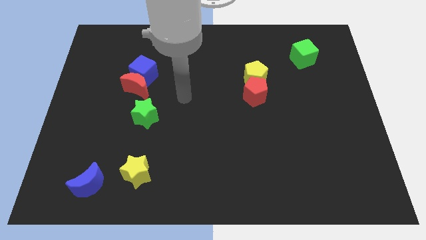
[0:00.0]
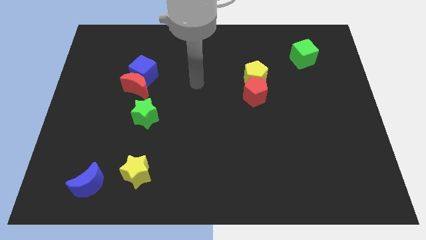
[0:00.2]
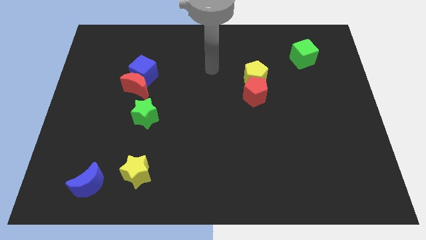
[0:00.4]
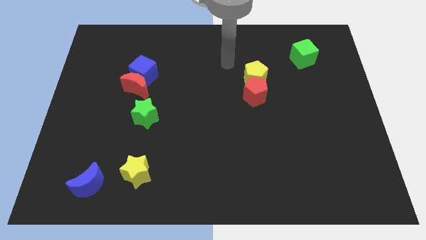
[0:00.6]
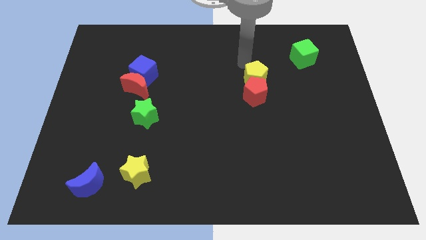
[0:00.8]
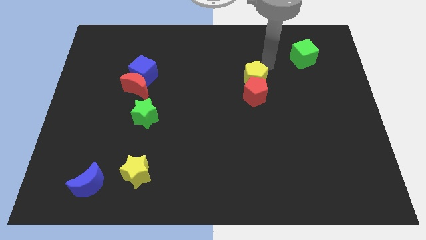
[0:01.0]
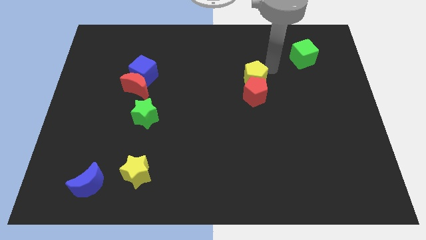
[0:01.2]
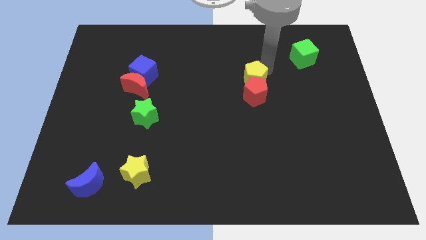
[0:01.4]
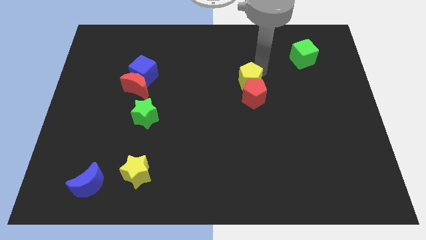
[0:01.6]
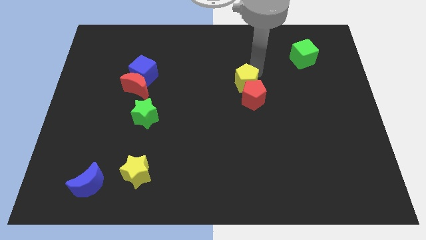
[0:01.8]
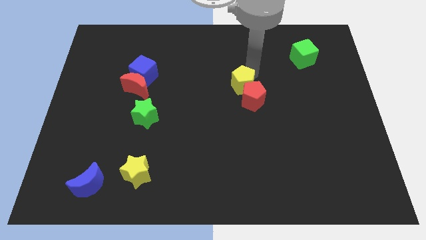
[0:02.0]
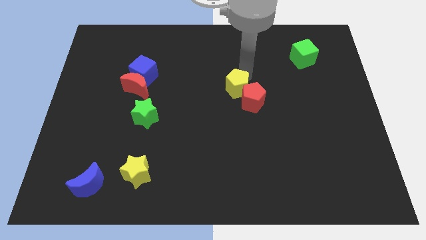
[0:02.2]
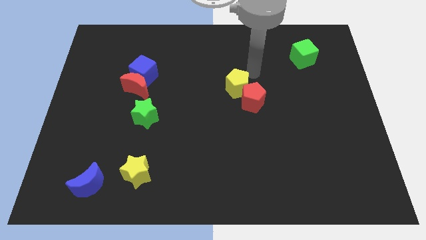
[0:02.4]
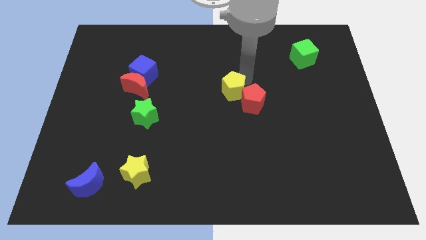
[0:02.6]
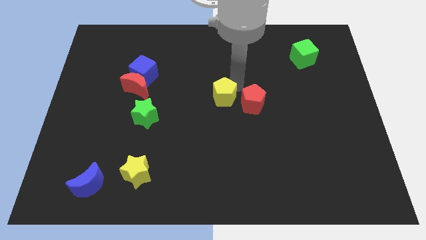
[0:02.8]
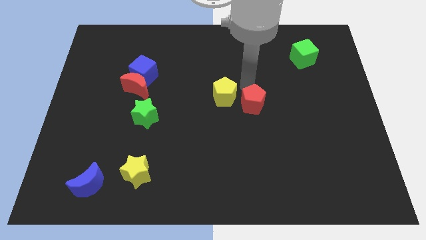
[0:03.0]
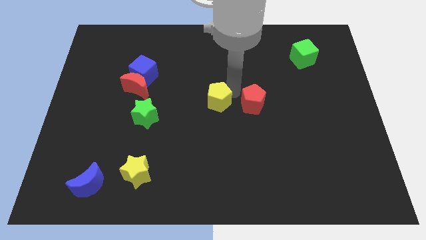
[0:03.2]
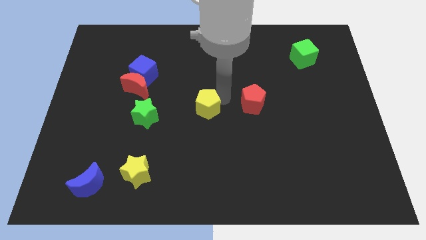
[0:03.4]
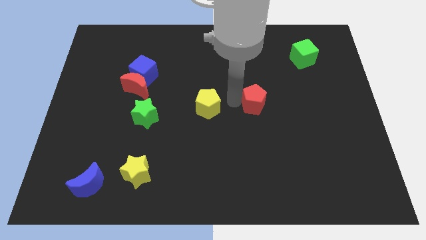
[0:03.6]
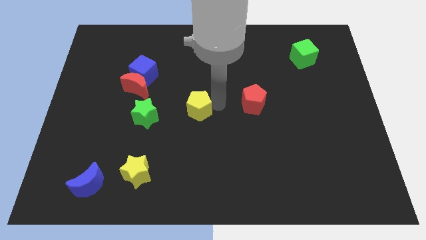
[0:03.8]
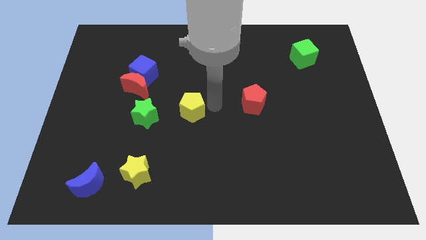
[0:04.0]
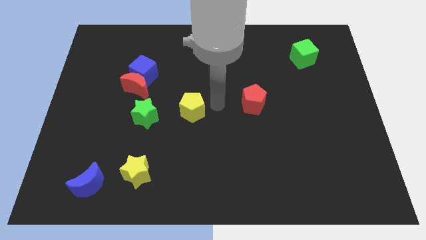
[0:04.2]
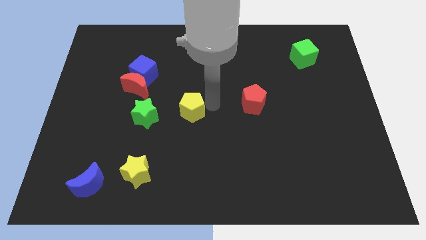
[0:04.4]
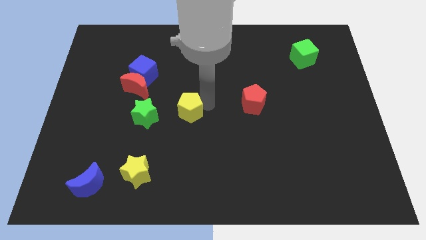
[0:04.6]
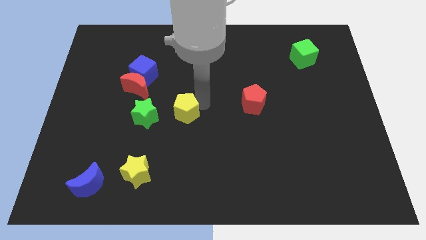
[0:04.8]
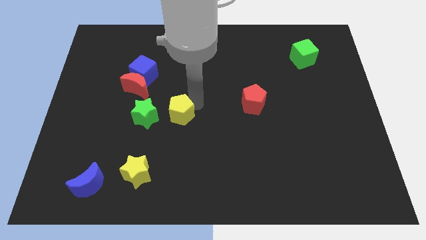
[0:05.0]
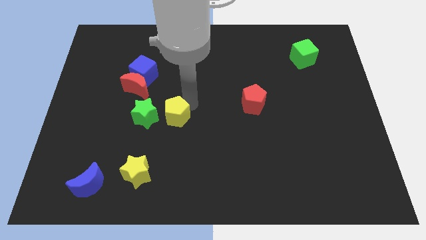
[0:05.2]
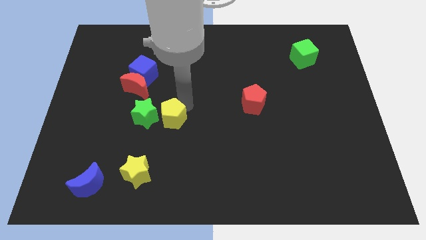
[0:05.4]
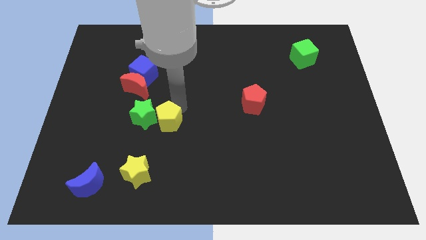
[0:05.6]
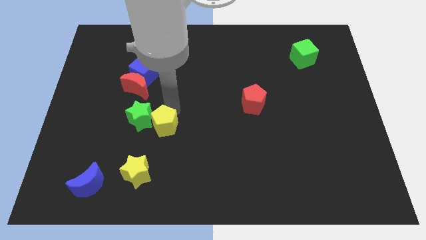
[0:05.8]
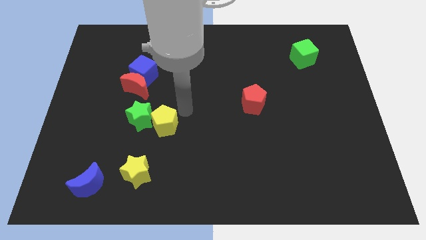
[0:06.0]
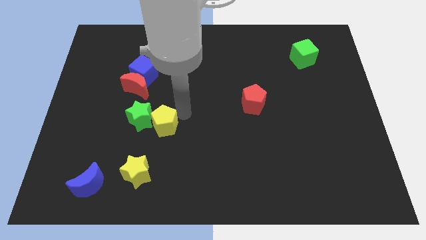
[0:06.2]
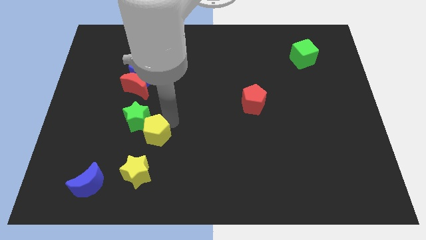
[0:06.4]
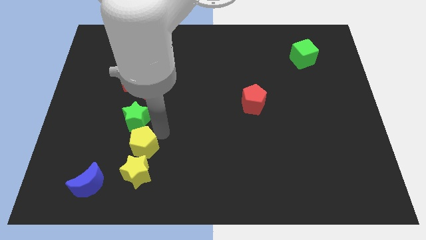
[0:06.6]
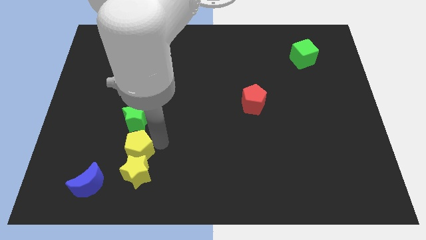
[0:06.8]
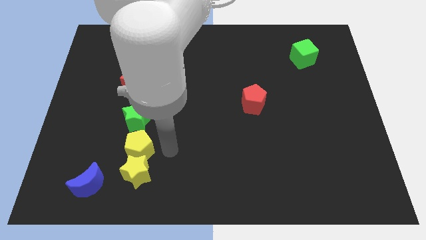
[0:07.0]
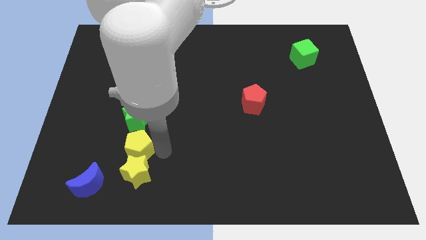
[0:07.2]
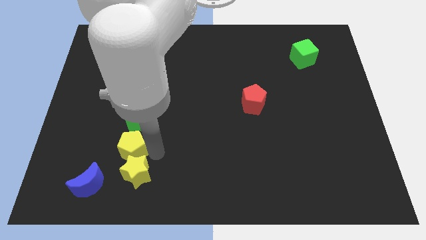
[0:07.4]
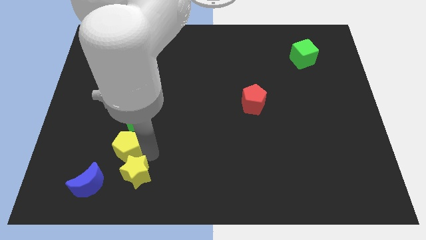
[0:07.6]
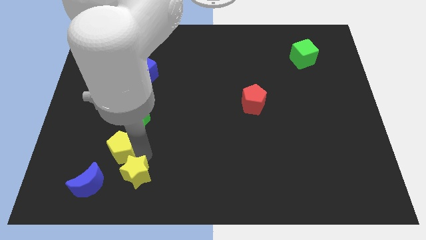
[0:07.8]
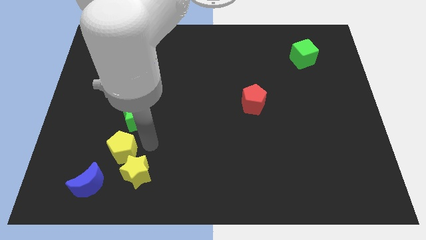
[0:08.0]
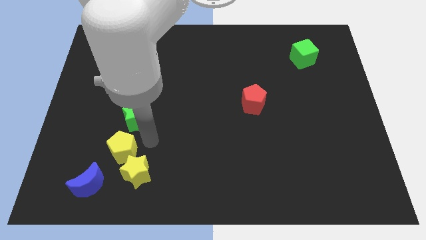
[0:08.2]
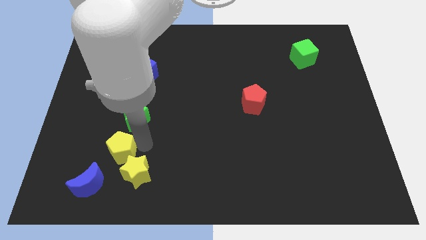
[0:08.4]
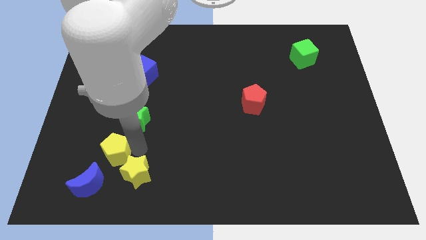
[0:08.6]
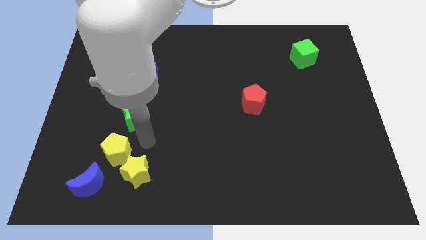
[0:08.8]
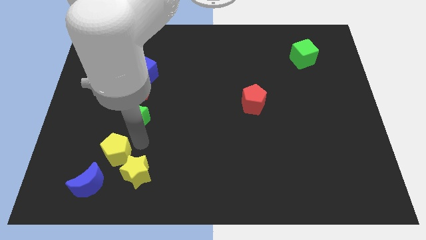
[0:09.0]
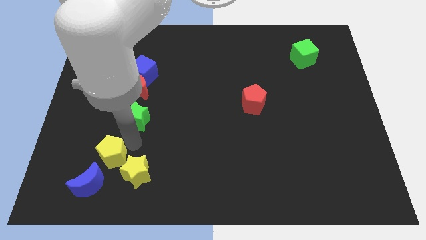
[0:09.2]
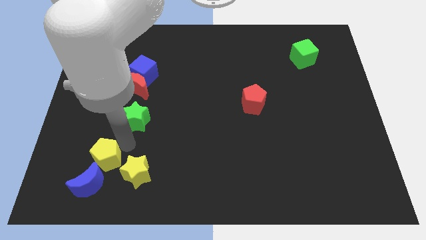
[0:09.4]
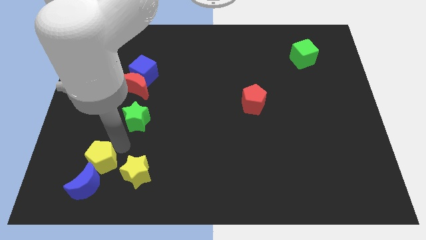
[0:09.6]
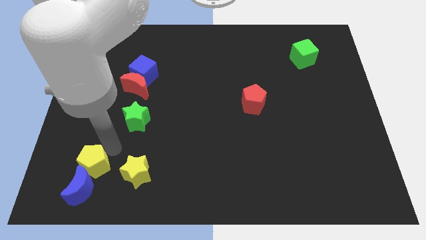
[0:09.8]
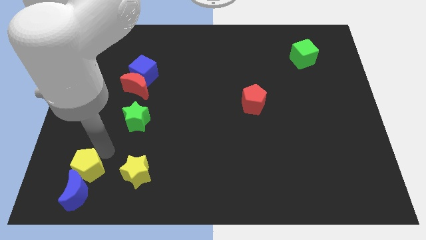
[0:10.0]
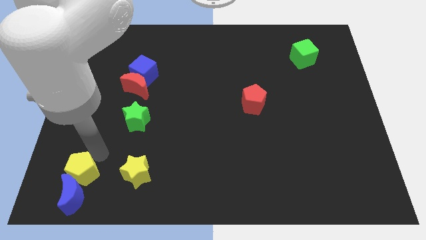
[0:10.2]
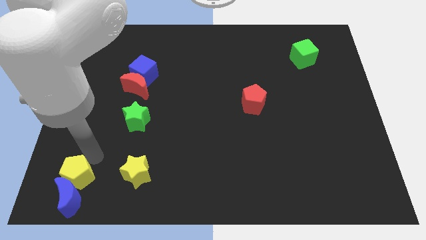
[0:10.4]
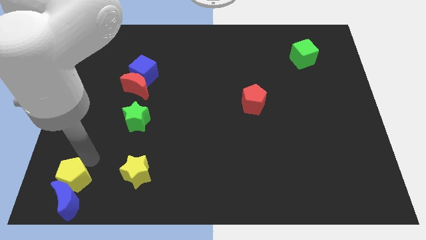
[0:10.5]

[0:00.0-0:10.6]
slide the yellow pentagon to the bottom left corner

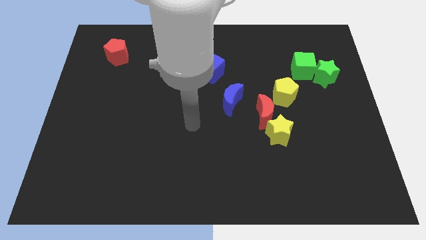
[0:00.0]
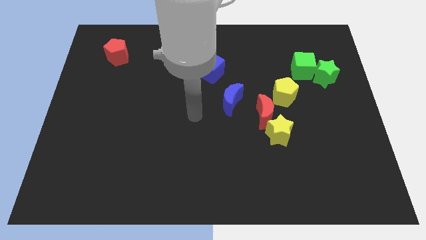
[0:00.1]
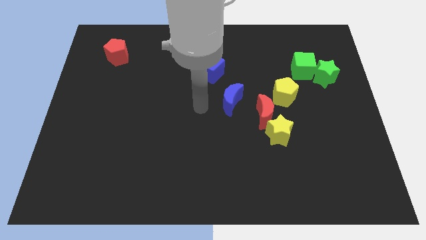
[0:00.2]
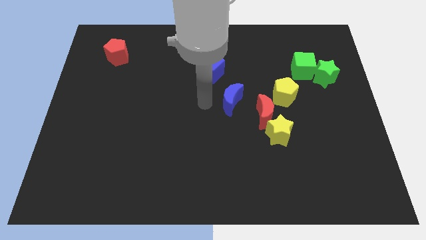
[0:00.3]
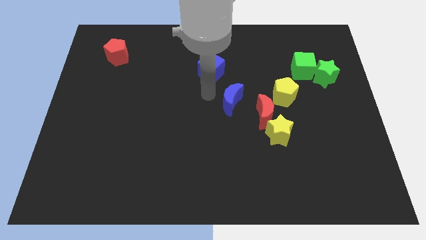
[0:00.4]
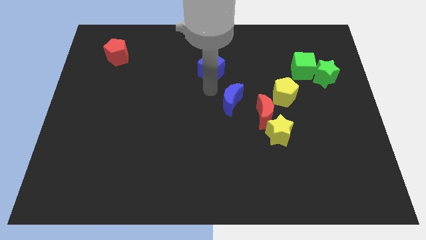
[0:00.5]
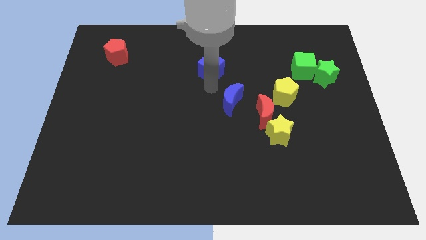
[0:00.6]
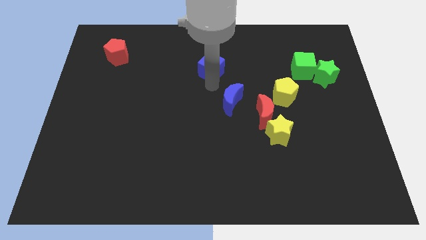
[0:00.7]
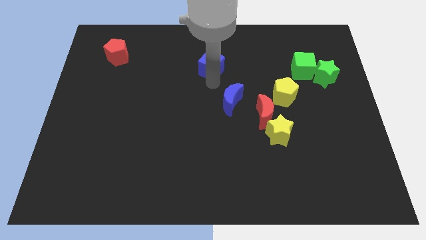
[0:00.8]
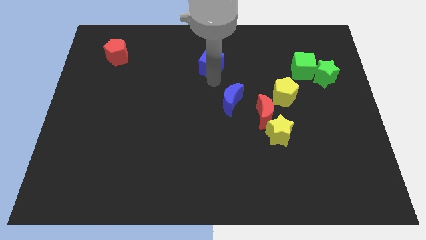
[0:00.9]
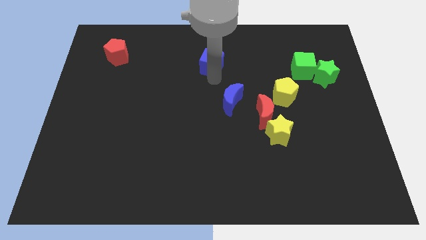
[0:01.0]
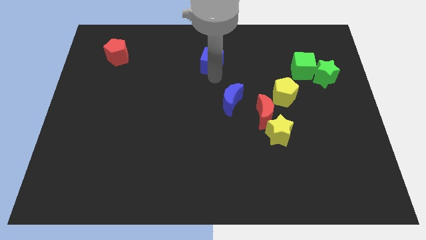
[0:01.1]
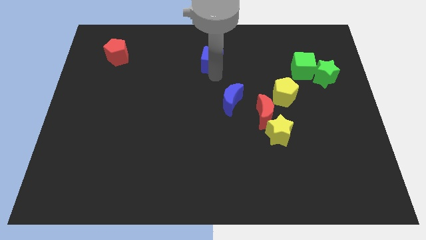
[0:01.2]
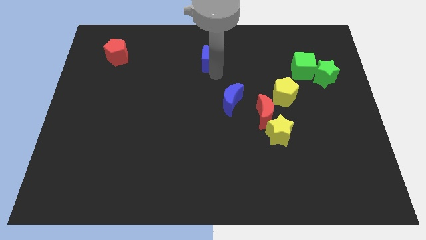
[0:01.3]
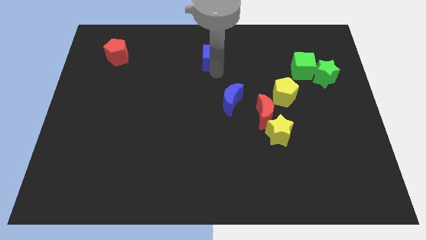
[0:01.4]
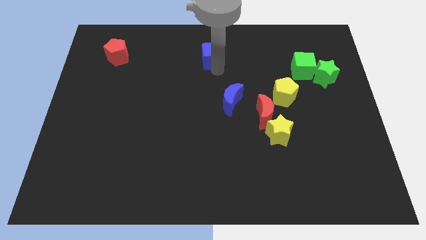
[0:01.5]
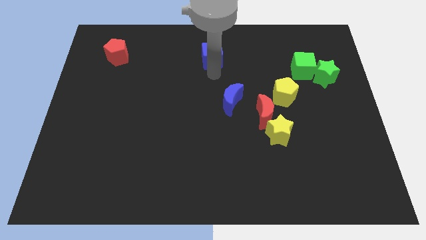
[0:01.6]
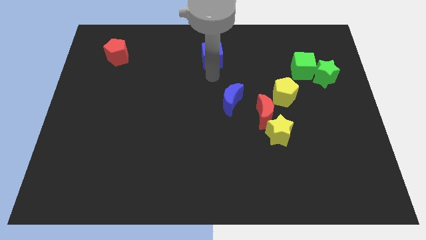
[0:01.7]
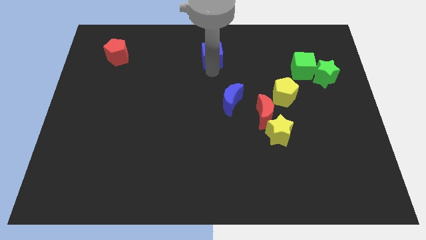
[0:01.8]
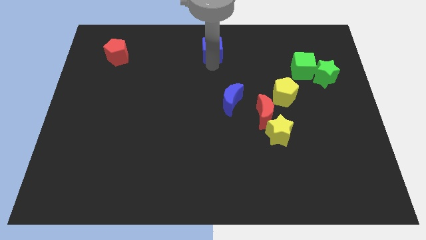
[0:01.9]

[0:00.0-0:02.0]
move the blue cube to the top side
